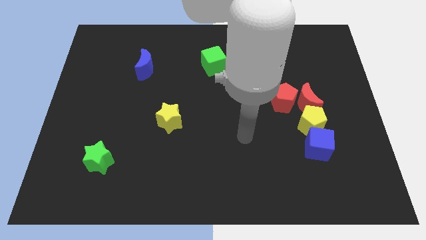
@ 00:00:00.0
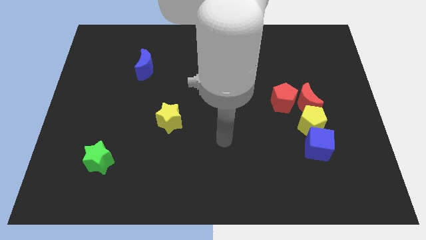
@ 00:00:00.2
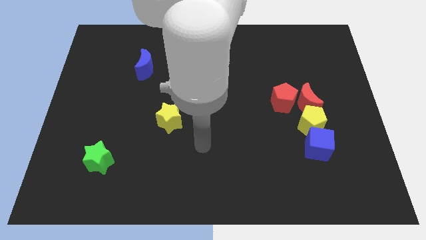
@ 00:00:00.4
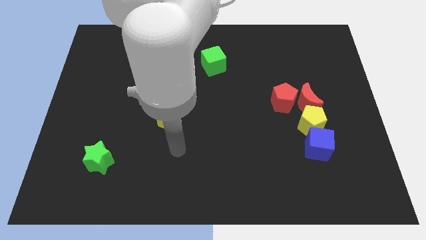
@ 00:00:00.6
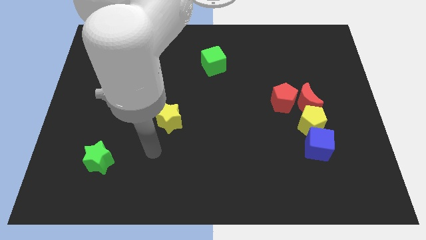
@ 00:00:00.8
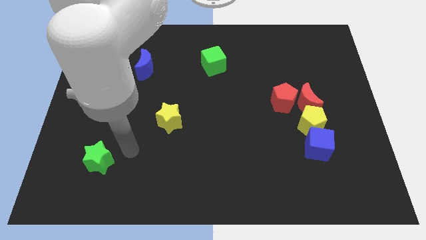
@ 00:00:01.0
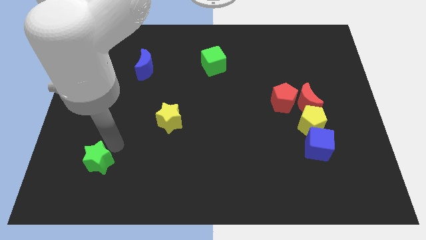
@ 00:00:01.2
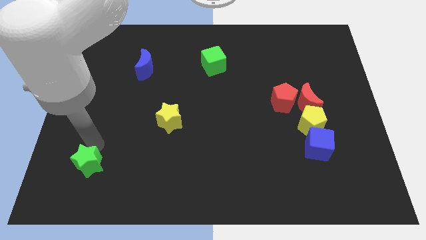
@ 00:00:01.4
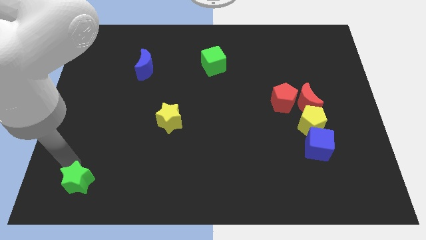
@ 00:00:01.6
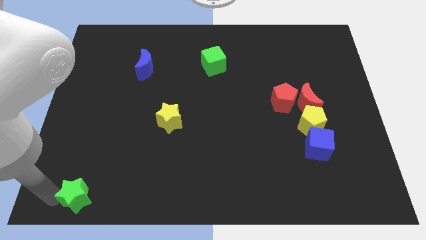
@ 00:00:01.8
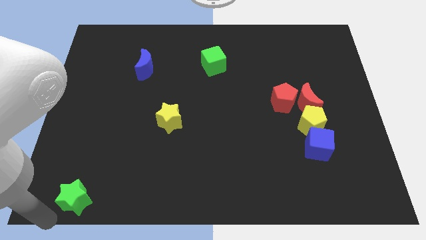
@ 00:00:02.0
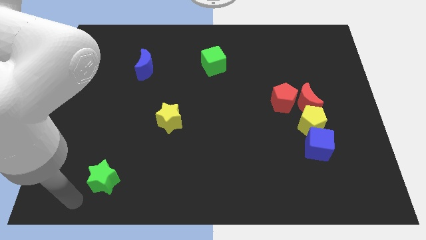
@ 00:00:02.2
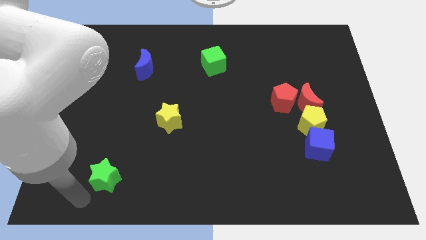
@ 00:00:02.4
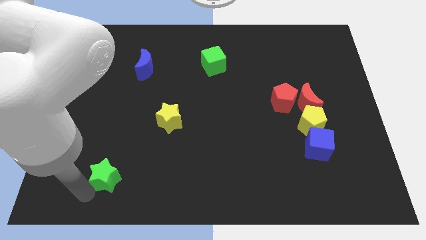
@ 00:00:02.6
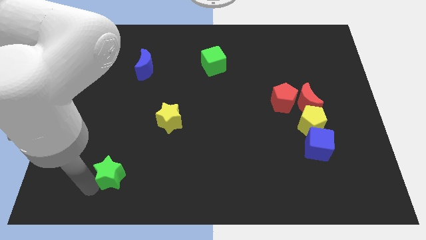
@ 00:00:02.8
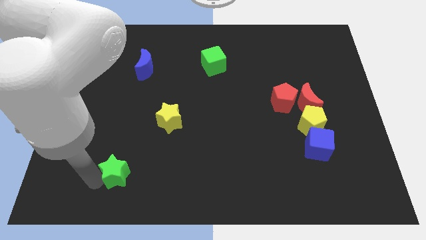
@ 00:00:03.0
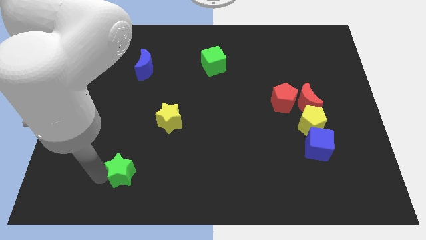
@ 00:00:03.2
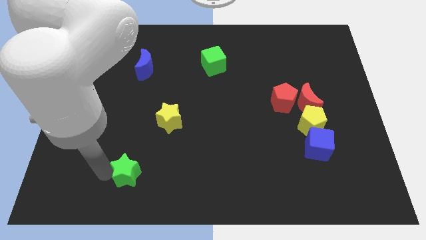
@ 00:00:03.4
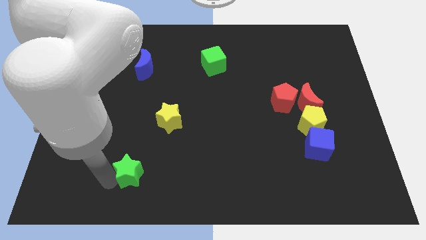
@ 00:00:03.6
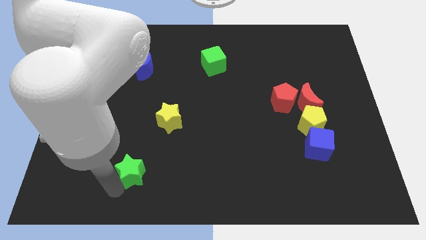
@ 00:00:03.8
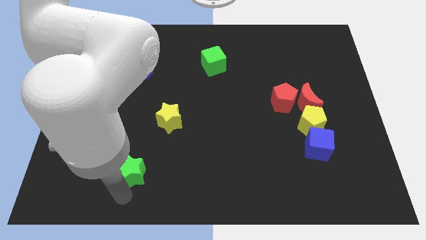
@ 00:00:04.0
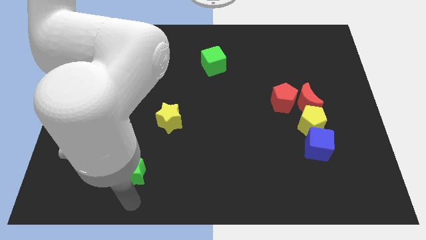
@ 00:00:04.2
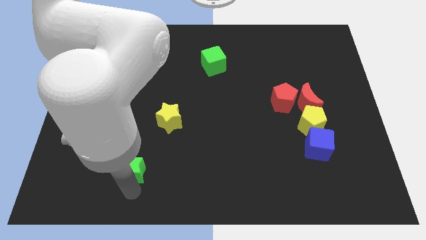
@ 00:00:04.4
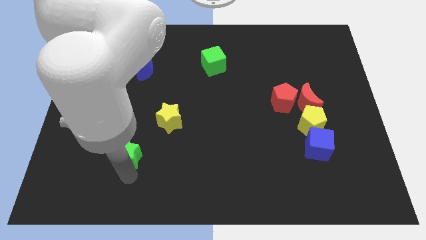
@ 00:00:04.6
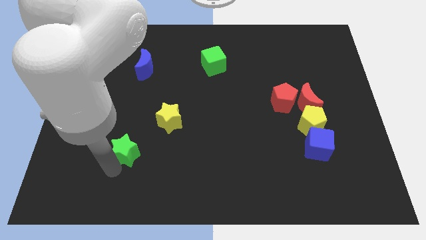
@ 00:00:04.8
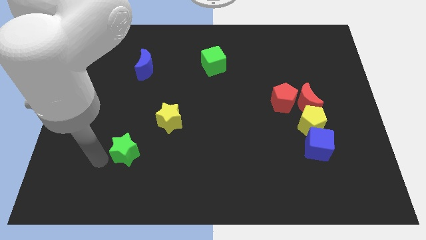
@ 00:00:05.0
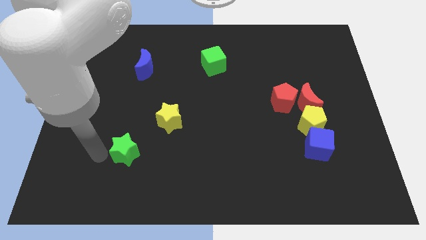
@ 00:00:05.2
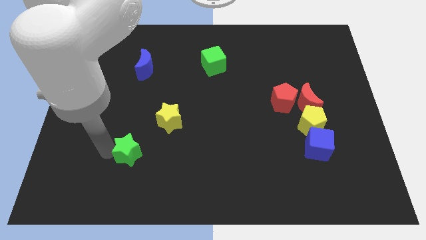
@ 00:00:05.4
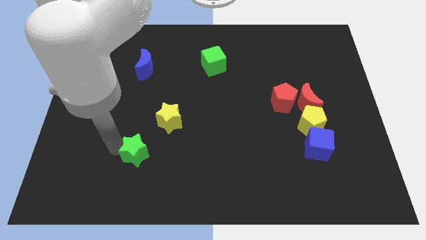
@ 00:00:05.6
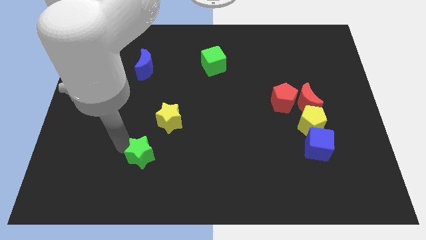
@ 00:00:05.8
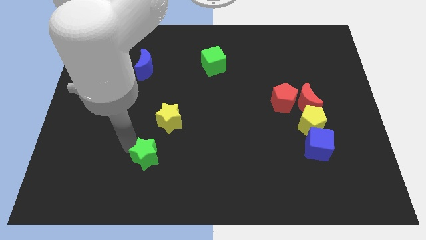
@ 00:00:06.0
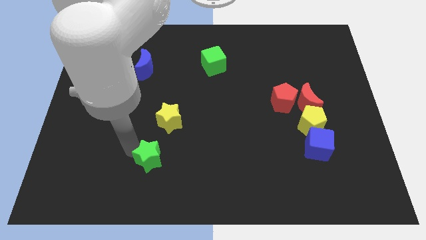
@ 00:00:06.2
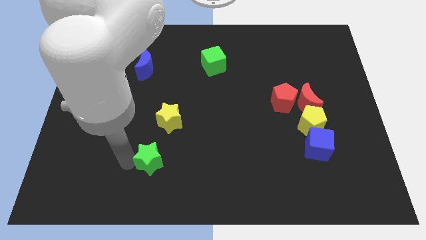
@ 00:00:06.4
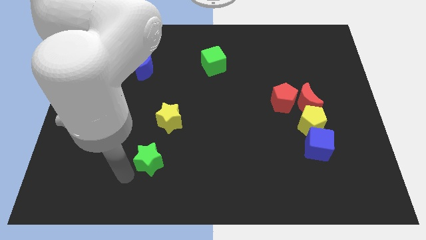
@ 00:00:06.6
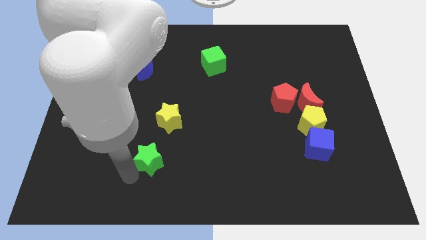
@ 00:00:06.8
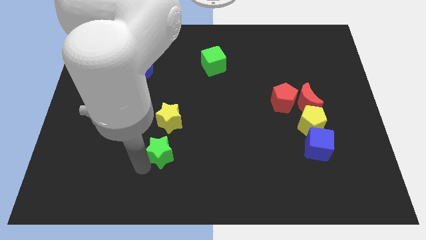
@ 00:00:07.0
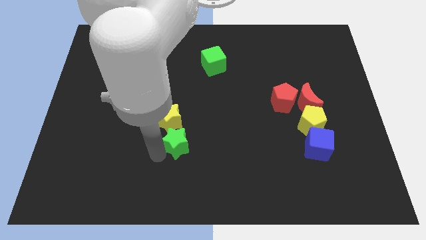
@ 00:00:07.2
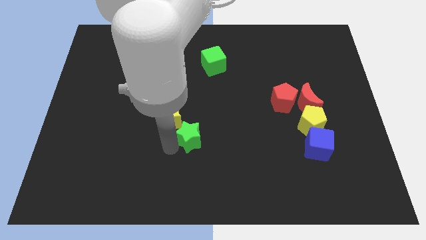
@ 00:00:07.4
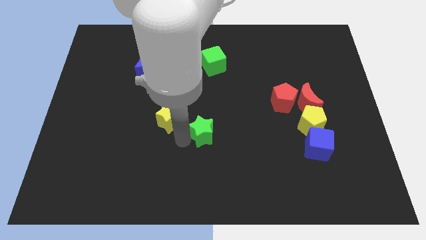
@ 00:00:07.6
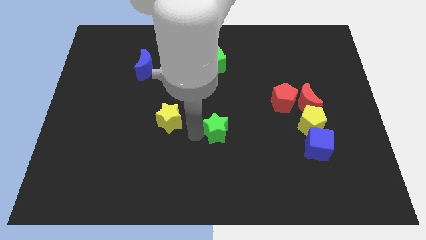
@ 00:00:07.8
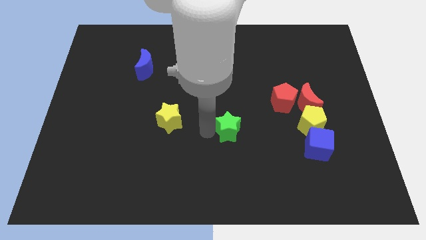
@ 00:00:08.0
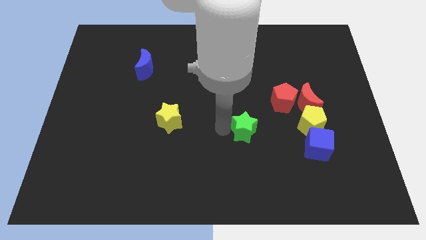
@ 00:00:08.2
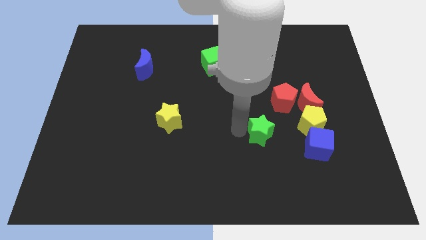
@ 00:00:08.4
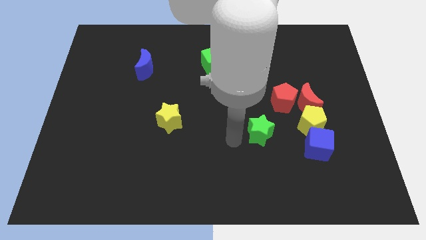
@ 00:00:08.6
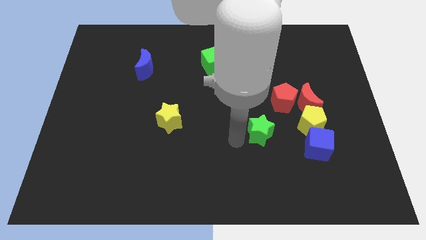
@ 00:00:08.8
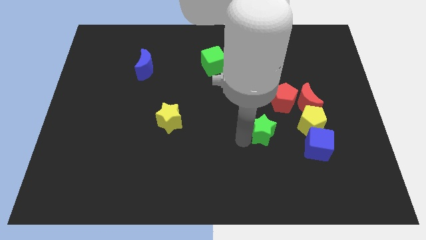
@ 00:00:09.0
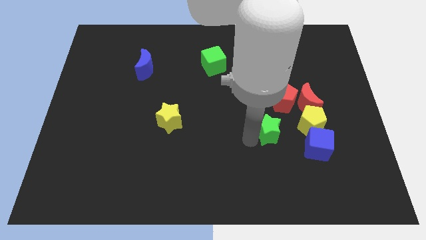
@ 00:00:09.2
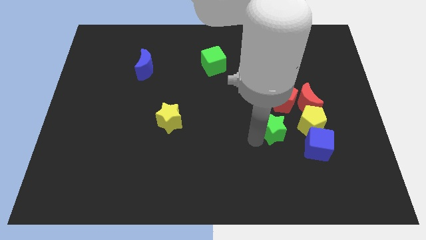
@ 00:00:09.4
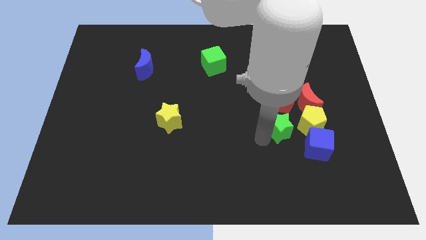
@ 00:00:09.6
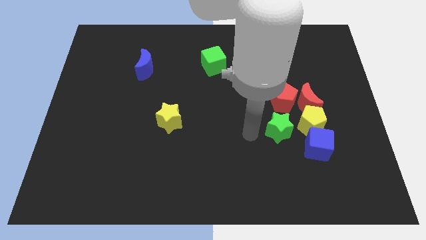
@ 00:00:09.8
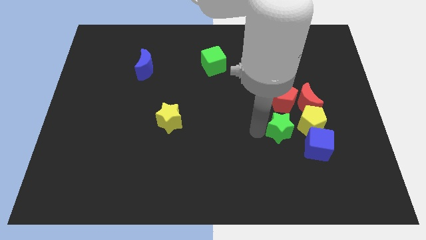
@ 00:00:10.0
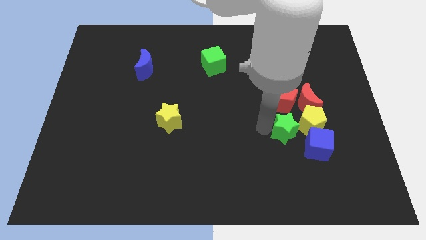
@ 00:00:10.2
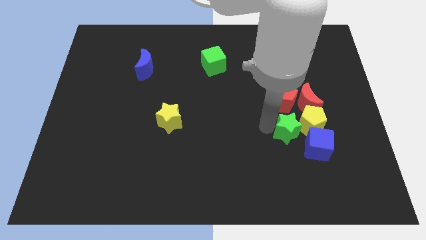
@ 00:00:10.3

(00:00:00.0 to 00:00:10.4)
push the green star next to the yellow pentagon

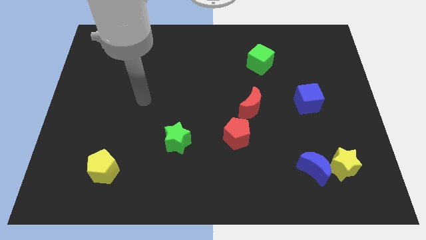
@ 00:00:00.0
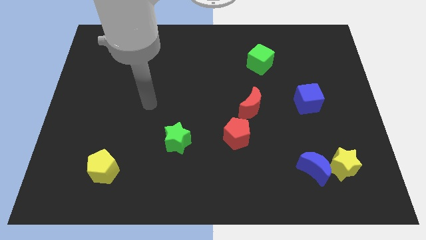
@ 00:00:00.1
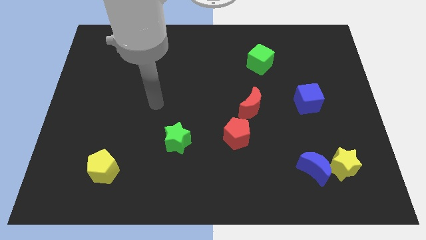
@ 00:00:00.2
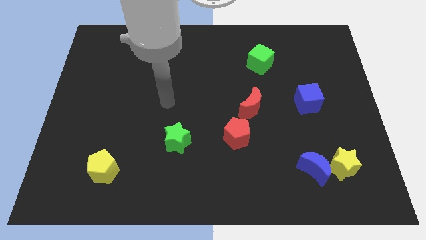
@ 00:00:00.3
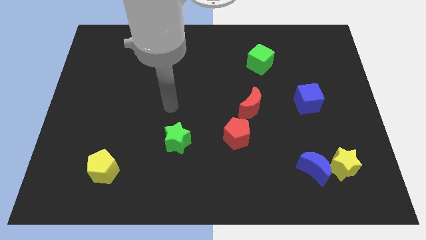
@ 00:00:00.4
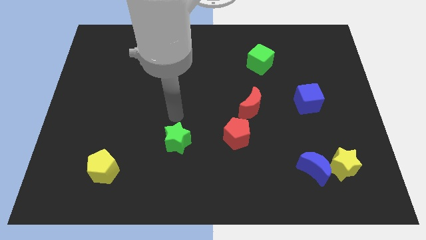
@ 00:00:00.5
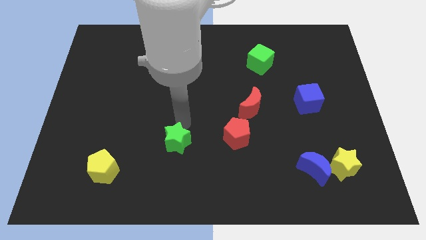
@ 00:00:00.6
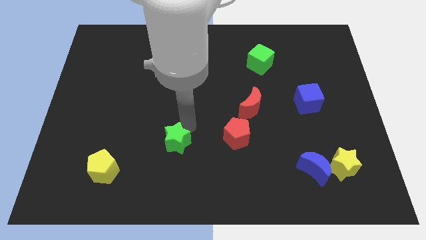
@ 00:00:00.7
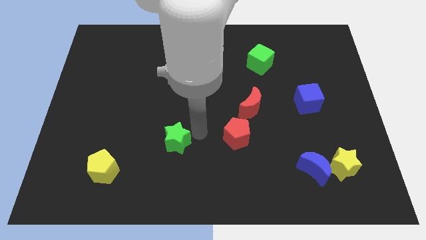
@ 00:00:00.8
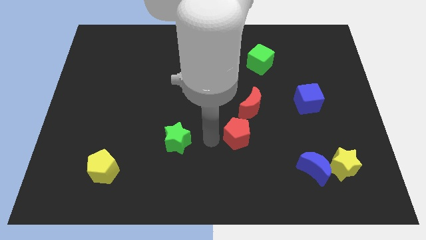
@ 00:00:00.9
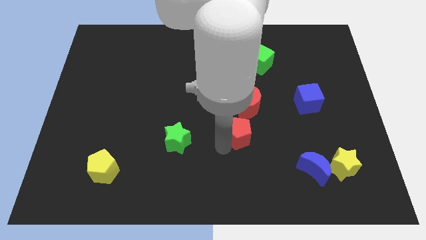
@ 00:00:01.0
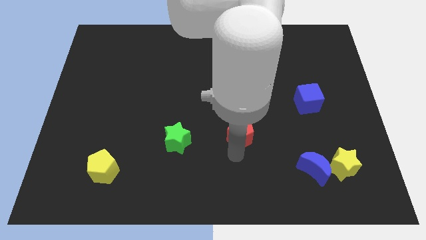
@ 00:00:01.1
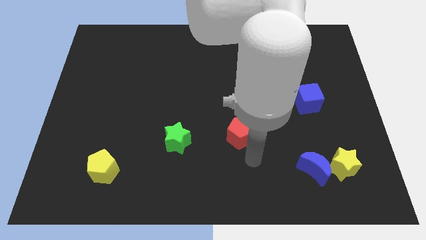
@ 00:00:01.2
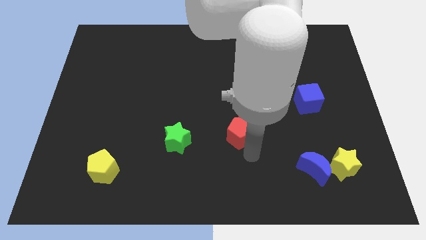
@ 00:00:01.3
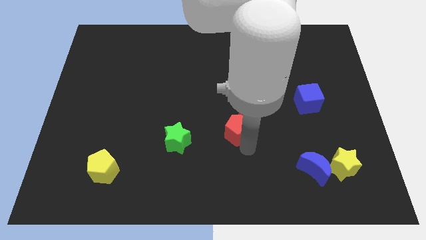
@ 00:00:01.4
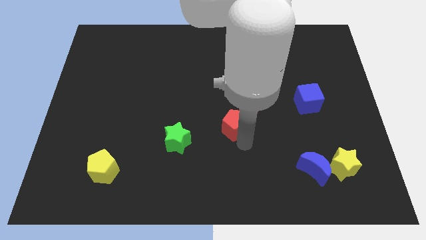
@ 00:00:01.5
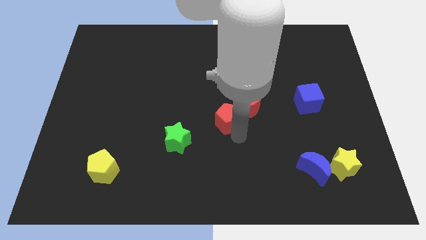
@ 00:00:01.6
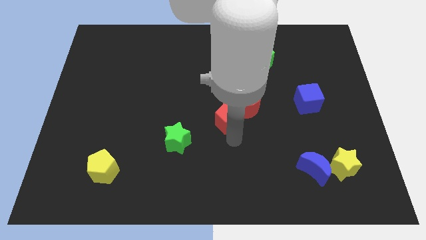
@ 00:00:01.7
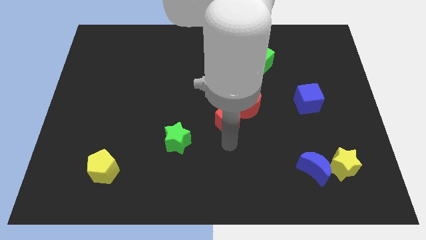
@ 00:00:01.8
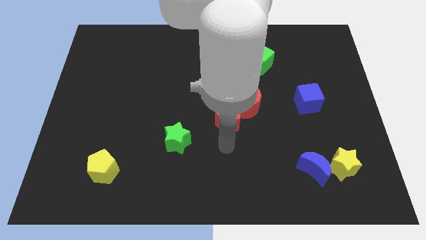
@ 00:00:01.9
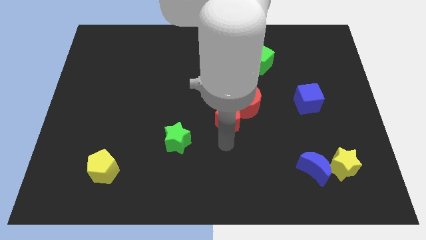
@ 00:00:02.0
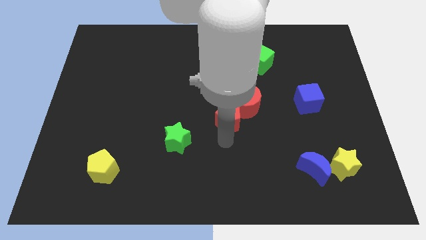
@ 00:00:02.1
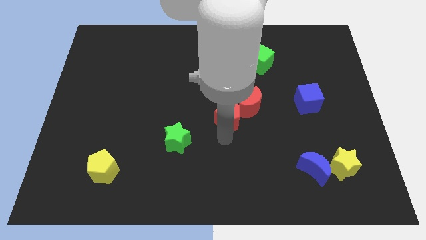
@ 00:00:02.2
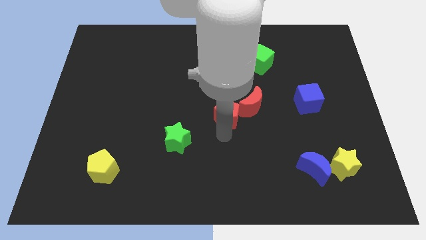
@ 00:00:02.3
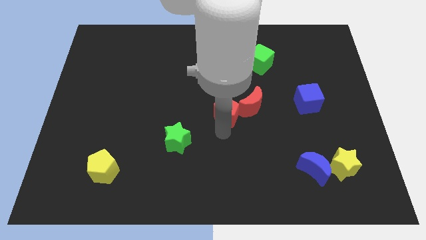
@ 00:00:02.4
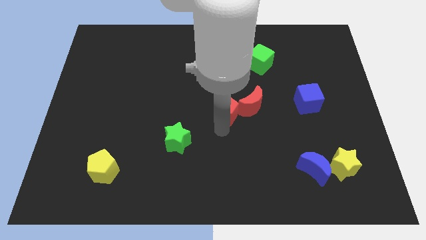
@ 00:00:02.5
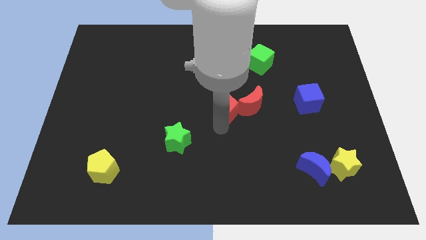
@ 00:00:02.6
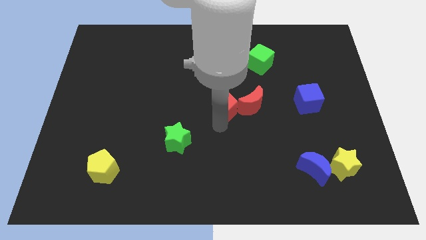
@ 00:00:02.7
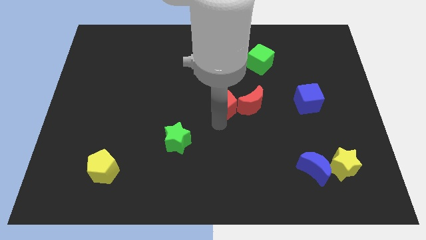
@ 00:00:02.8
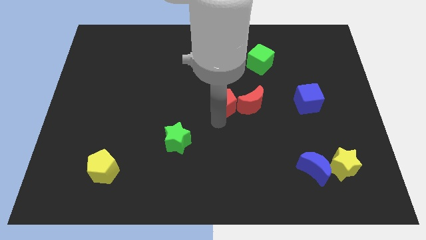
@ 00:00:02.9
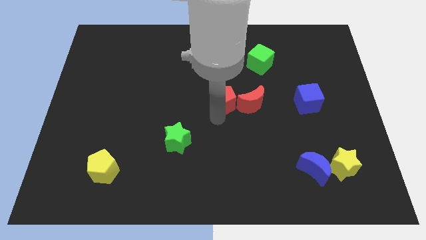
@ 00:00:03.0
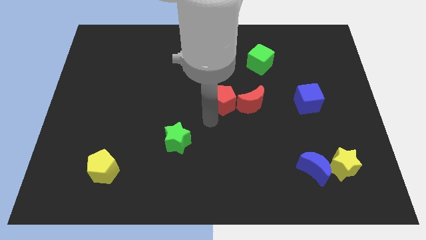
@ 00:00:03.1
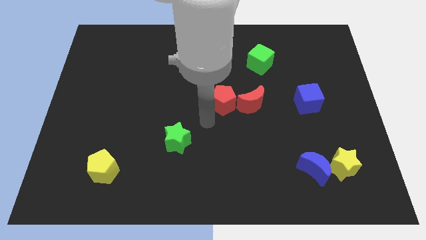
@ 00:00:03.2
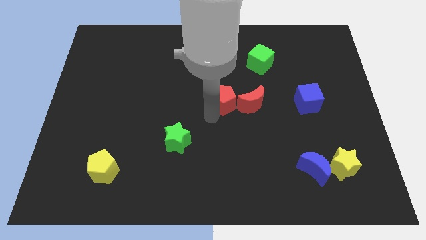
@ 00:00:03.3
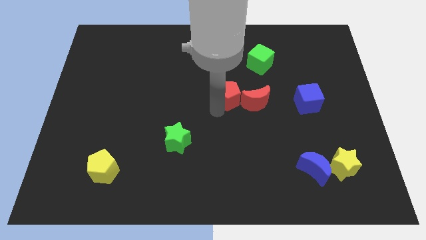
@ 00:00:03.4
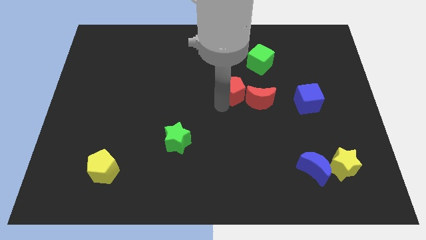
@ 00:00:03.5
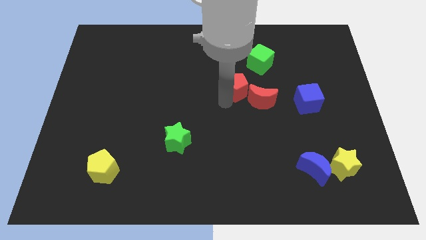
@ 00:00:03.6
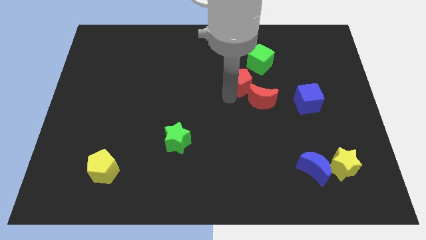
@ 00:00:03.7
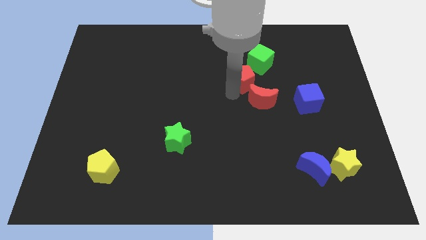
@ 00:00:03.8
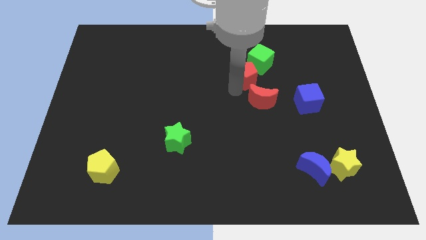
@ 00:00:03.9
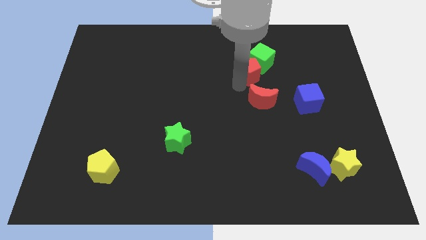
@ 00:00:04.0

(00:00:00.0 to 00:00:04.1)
put the red pentagon next to the green cube
